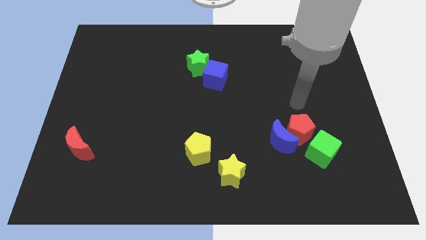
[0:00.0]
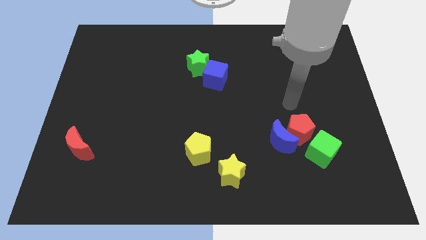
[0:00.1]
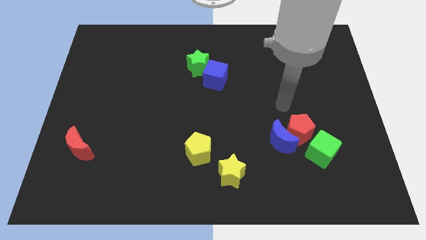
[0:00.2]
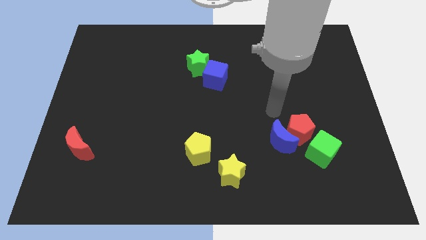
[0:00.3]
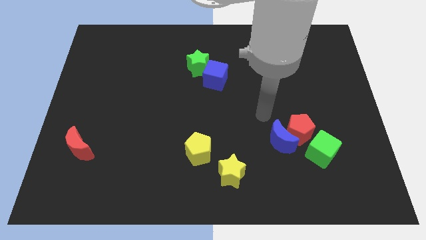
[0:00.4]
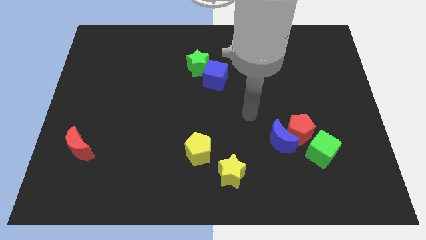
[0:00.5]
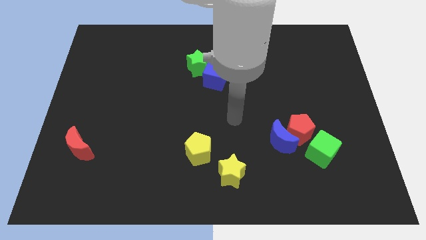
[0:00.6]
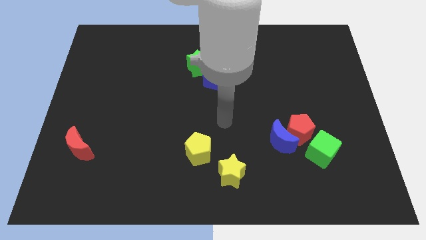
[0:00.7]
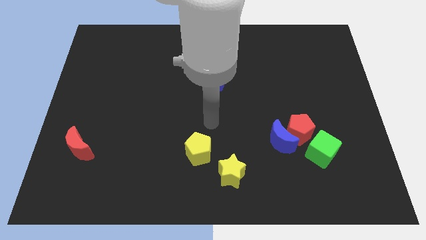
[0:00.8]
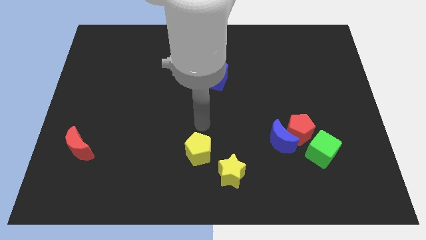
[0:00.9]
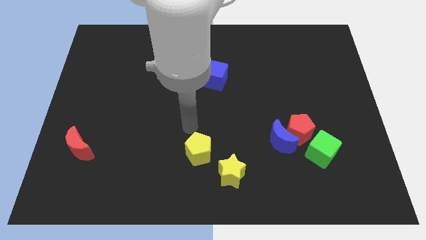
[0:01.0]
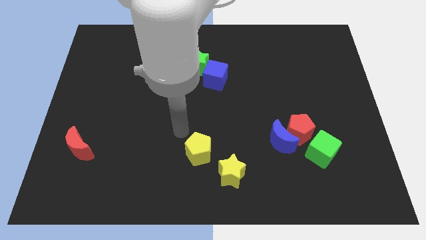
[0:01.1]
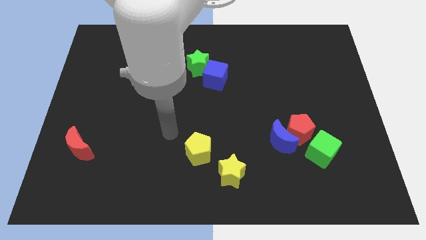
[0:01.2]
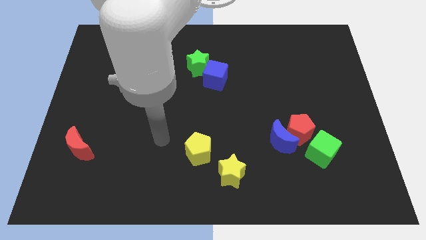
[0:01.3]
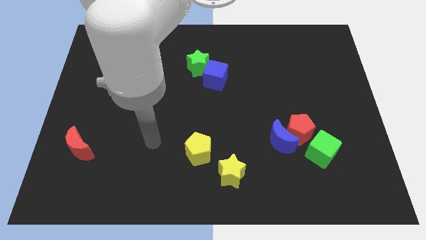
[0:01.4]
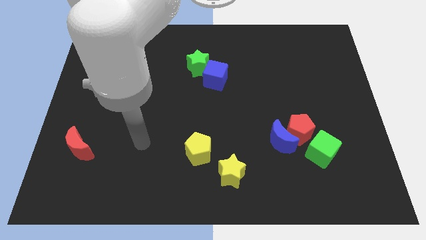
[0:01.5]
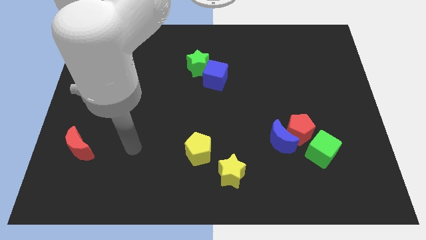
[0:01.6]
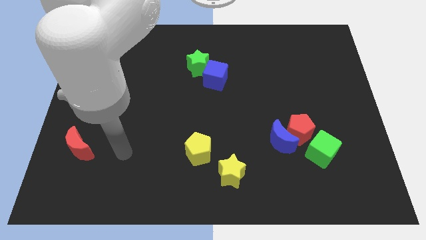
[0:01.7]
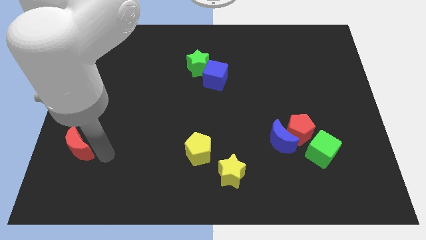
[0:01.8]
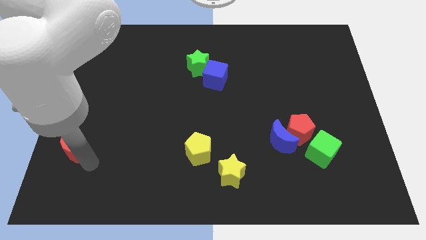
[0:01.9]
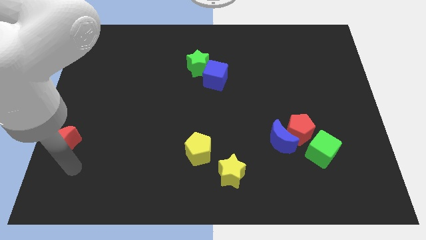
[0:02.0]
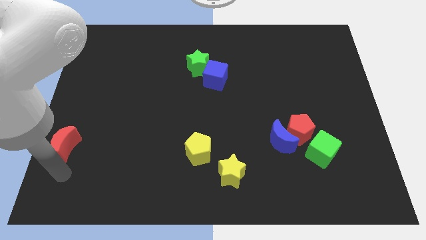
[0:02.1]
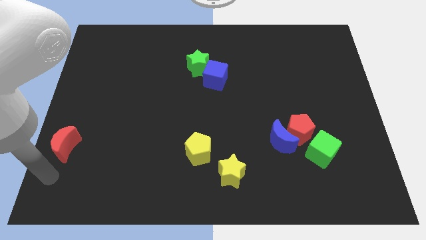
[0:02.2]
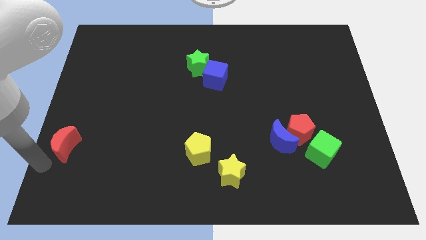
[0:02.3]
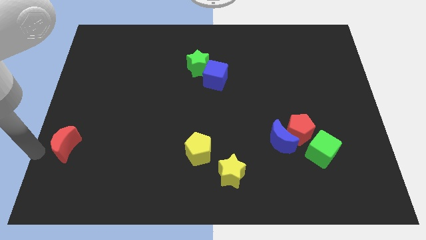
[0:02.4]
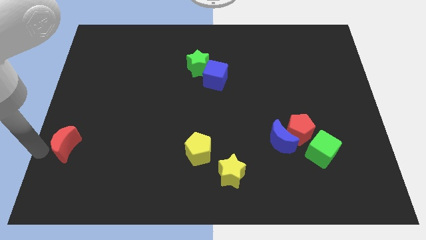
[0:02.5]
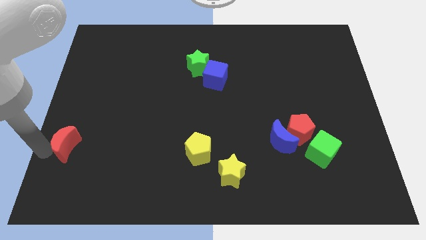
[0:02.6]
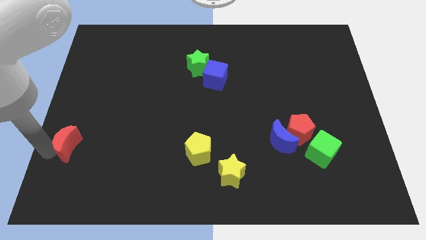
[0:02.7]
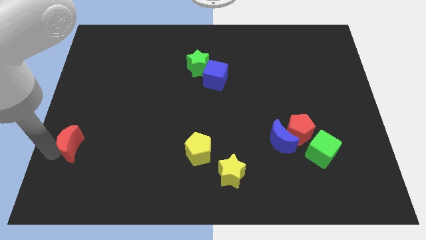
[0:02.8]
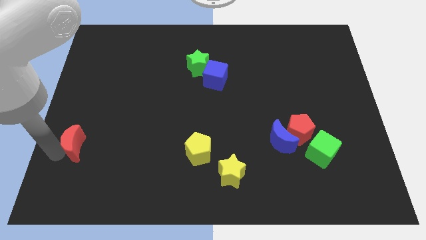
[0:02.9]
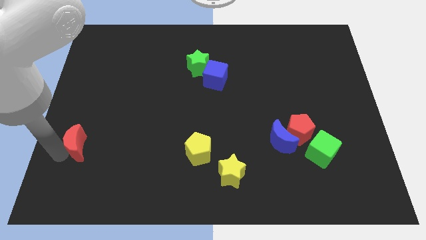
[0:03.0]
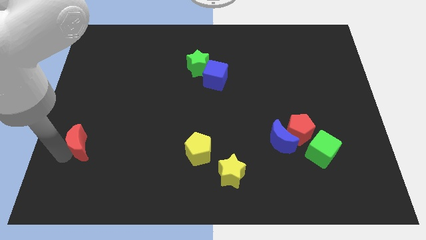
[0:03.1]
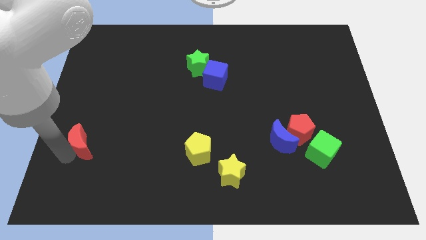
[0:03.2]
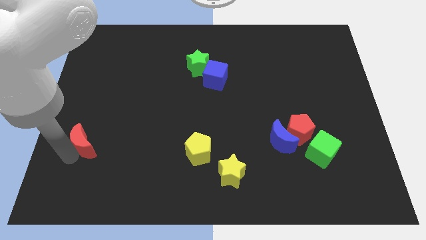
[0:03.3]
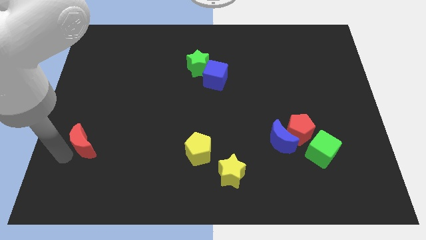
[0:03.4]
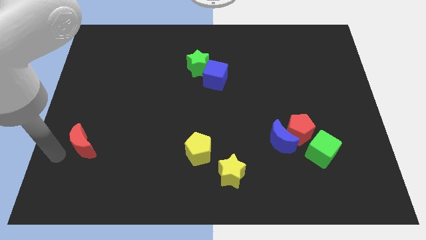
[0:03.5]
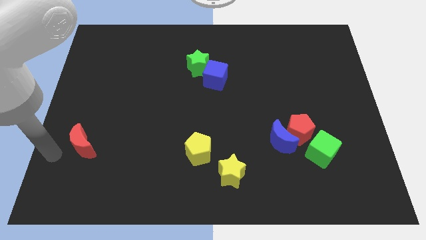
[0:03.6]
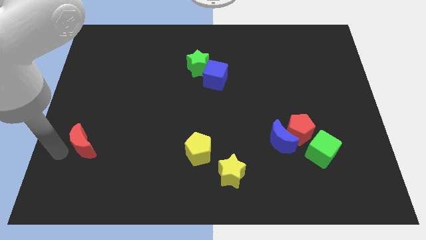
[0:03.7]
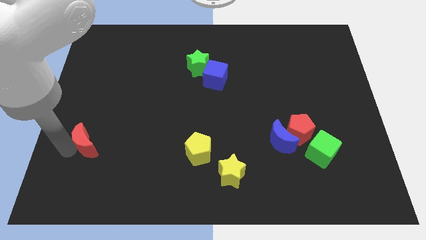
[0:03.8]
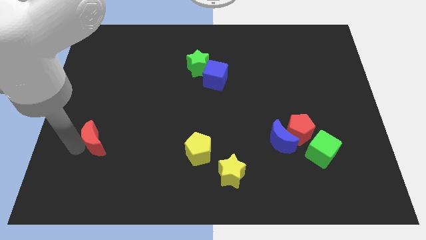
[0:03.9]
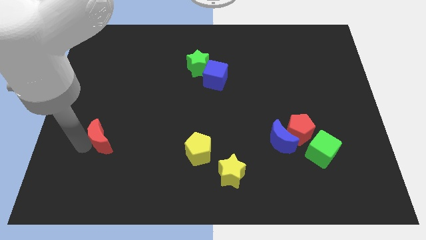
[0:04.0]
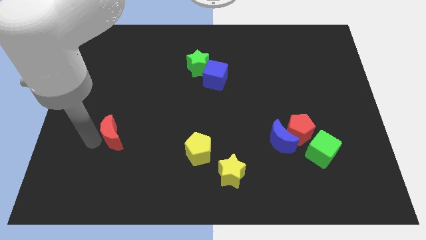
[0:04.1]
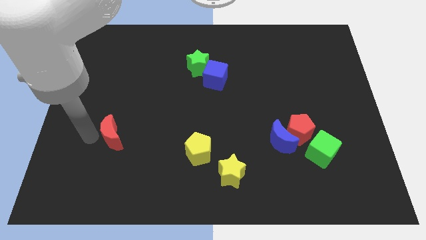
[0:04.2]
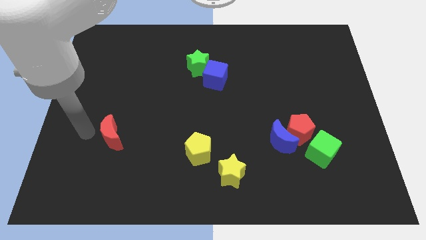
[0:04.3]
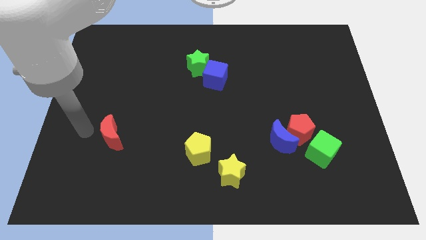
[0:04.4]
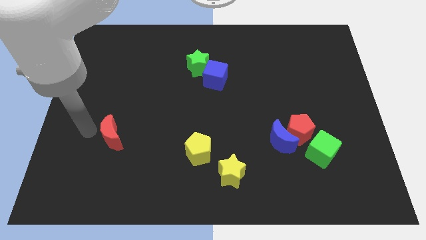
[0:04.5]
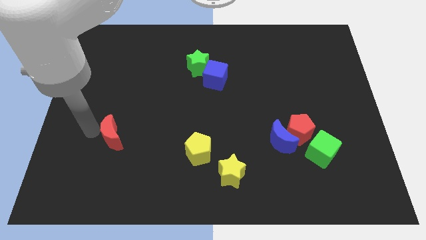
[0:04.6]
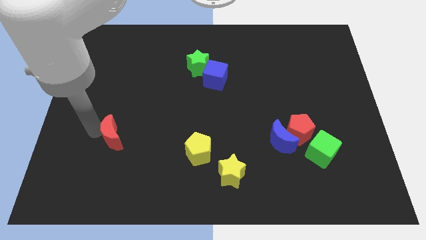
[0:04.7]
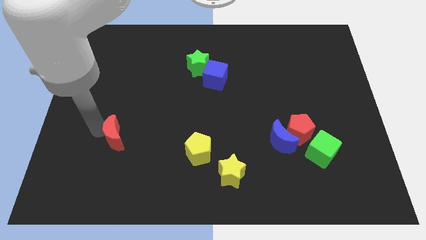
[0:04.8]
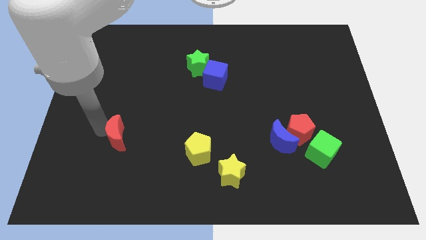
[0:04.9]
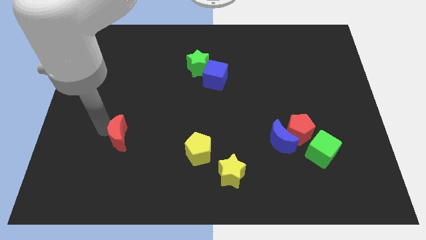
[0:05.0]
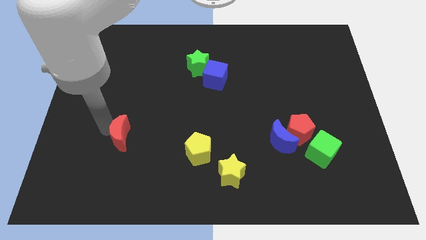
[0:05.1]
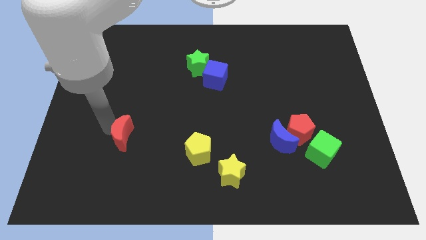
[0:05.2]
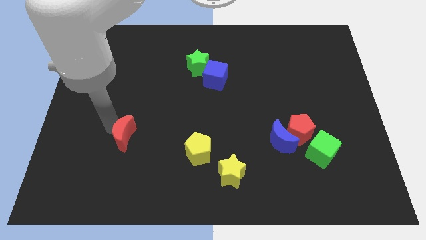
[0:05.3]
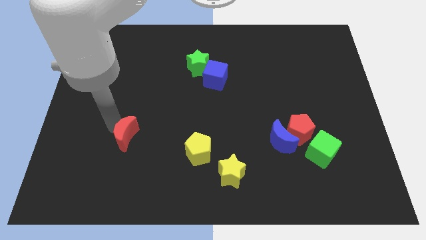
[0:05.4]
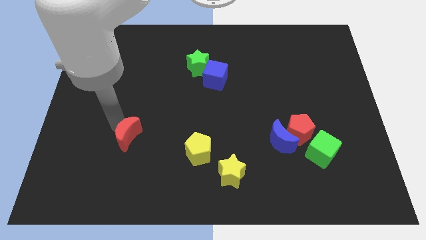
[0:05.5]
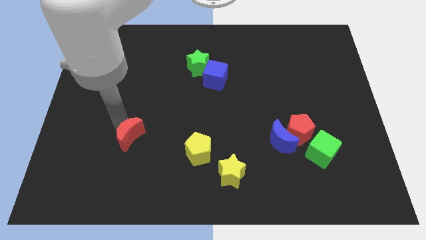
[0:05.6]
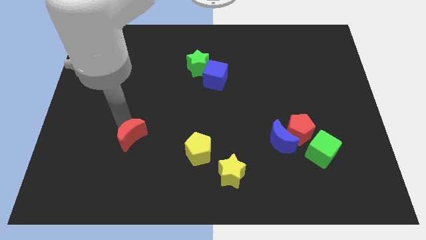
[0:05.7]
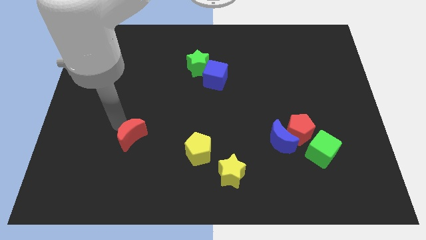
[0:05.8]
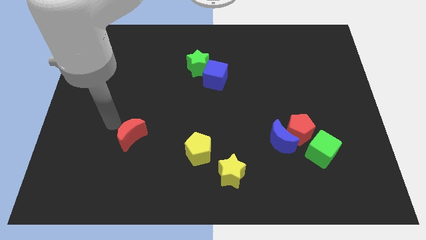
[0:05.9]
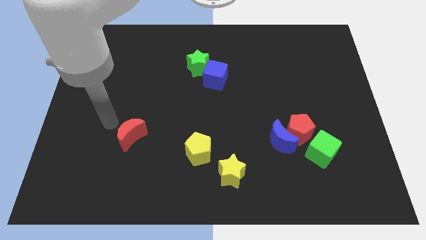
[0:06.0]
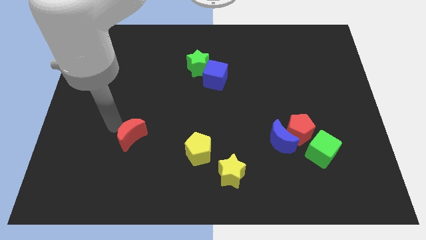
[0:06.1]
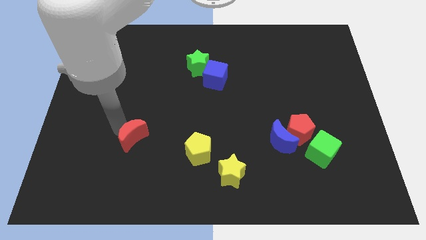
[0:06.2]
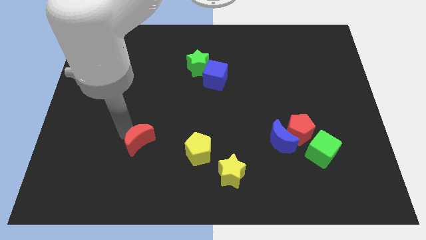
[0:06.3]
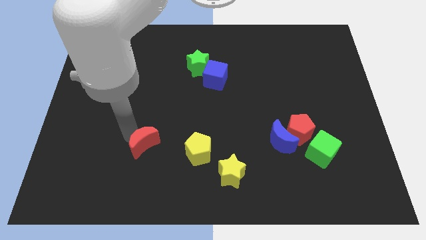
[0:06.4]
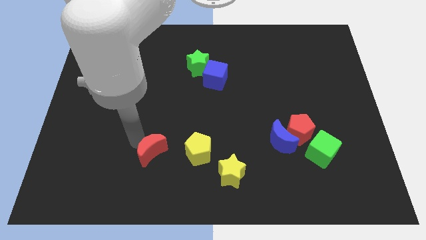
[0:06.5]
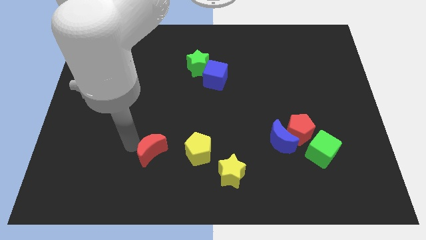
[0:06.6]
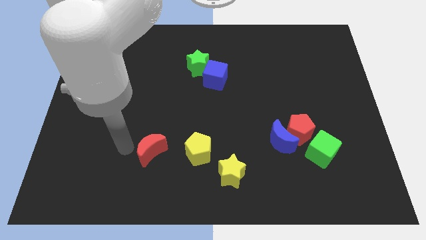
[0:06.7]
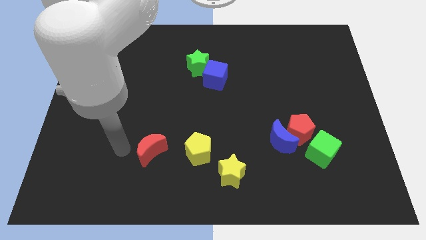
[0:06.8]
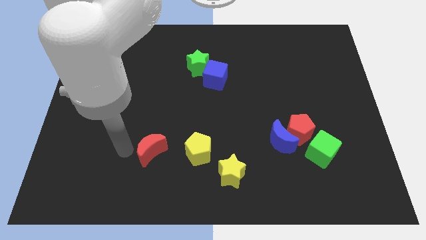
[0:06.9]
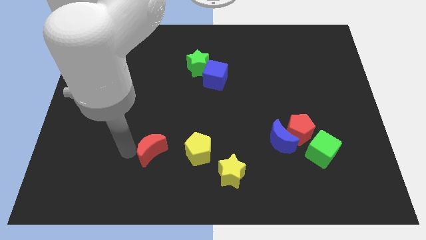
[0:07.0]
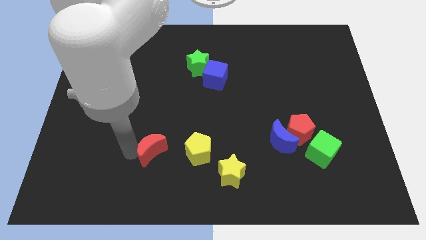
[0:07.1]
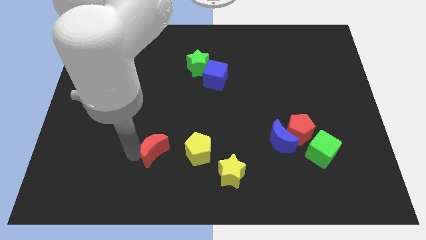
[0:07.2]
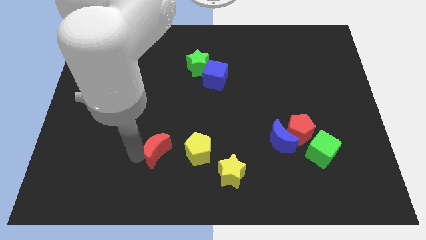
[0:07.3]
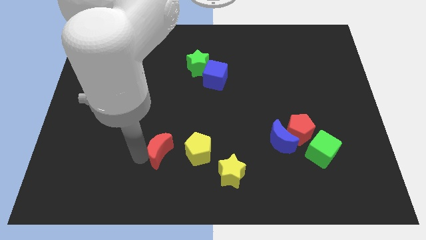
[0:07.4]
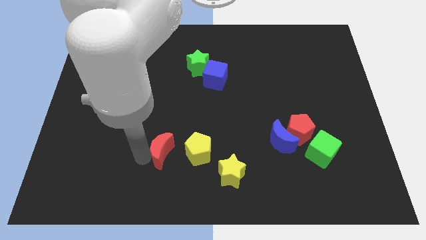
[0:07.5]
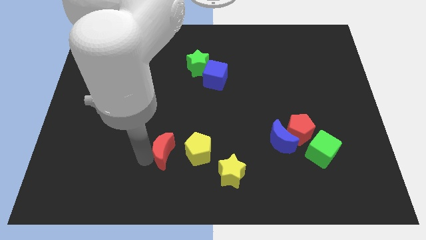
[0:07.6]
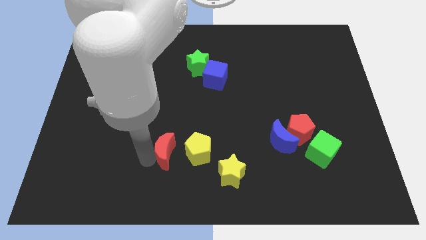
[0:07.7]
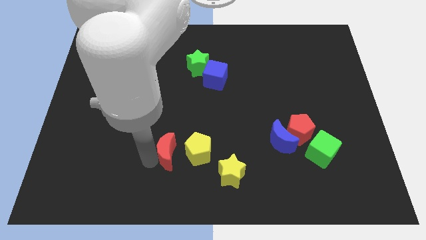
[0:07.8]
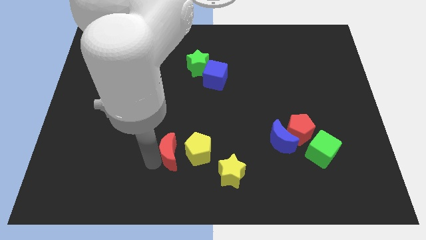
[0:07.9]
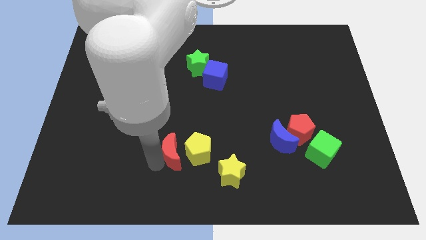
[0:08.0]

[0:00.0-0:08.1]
push the red moon to the yellow pentagon
